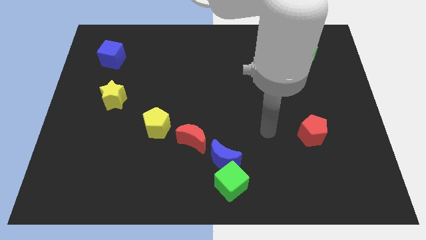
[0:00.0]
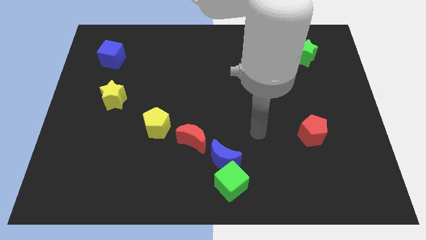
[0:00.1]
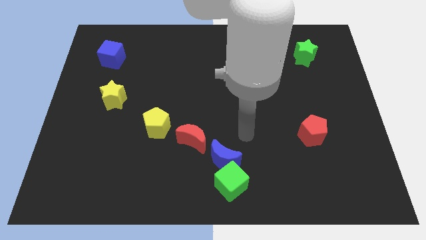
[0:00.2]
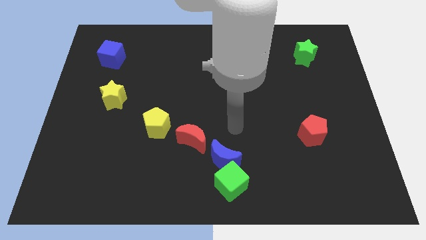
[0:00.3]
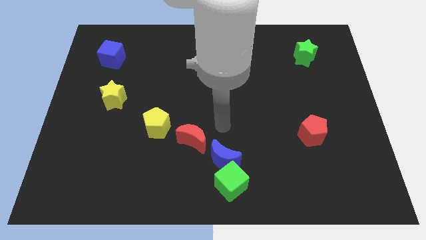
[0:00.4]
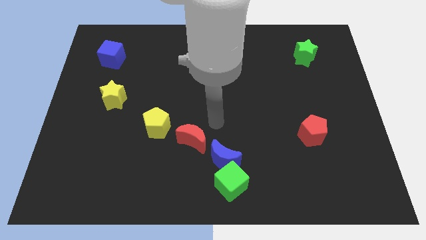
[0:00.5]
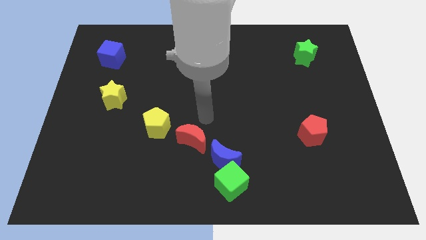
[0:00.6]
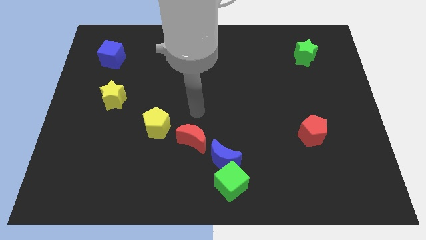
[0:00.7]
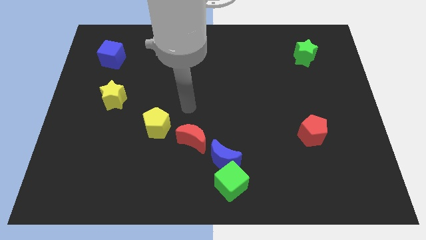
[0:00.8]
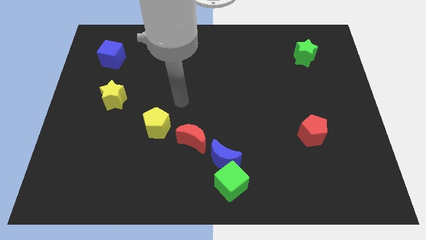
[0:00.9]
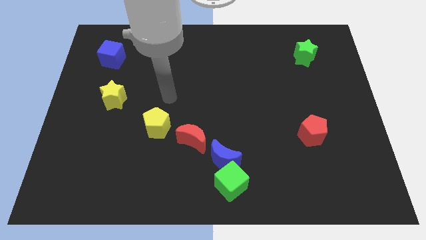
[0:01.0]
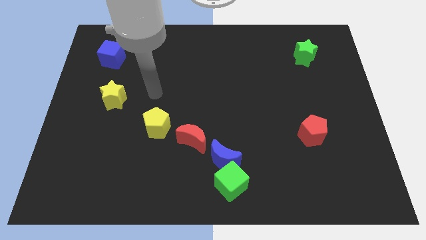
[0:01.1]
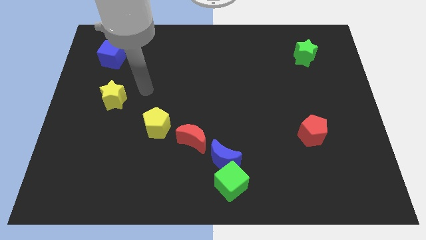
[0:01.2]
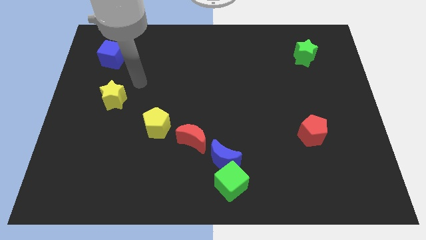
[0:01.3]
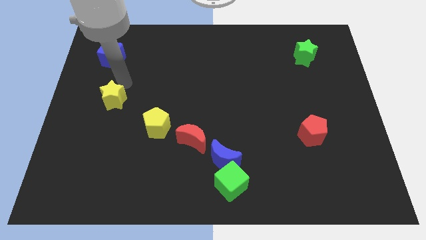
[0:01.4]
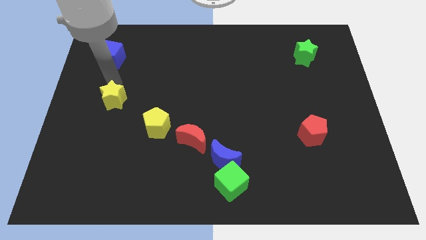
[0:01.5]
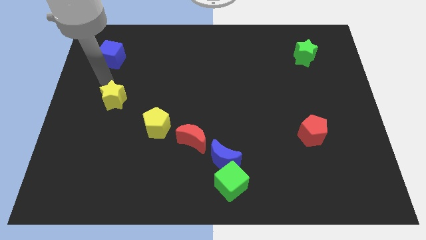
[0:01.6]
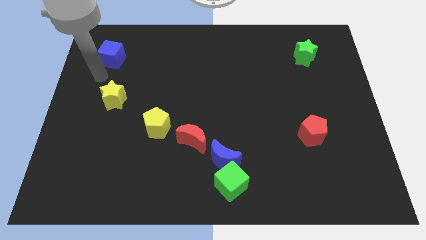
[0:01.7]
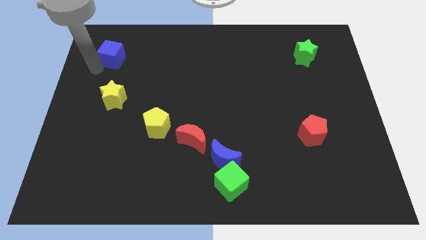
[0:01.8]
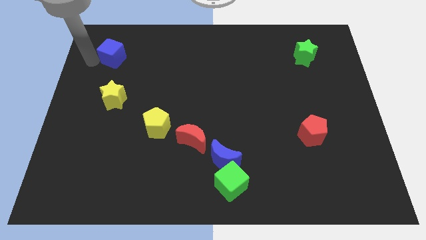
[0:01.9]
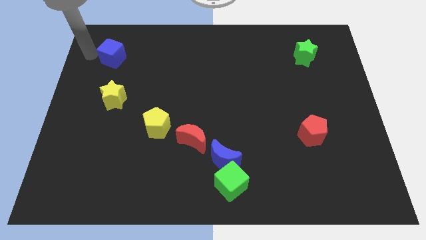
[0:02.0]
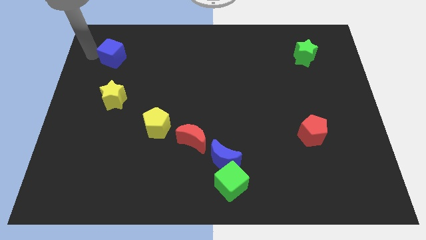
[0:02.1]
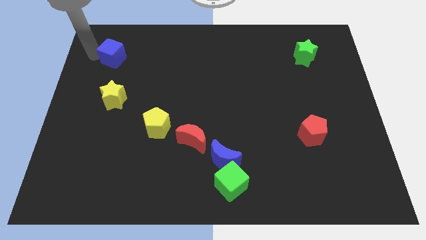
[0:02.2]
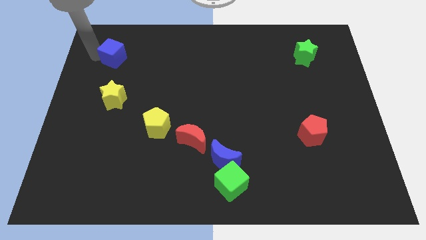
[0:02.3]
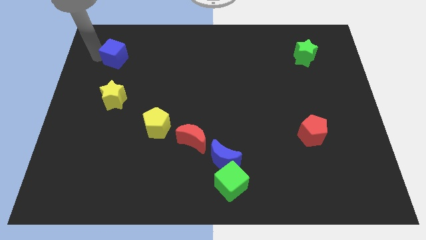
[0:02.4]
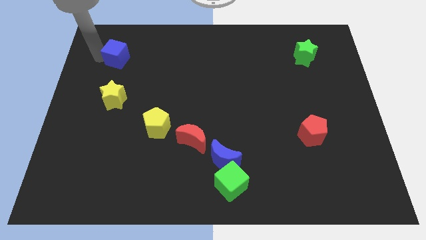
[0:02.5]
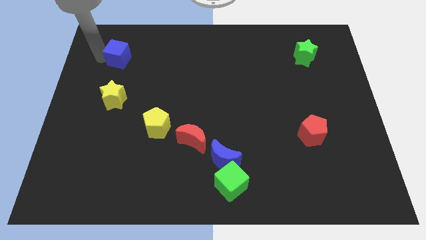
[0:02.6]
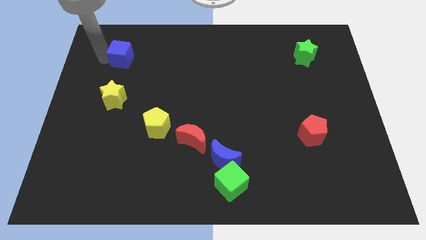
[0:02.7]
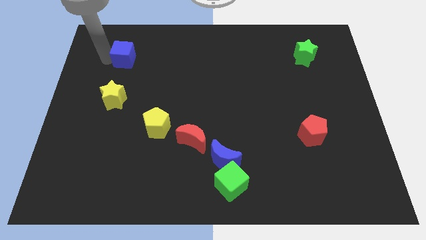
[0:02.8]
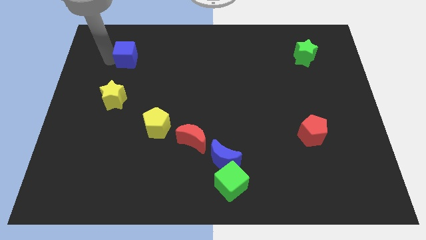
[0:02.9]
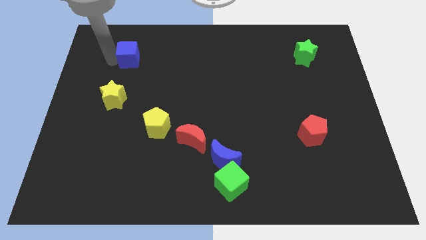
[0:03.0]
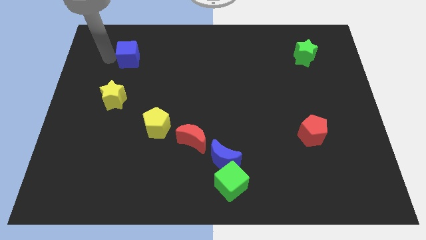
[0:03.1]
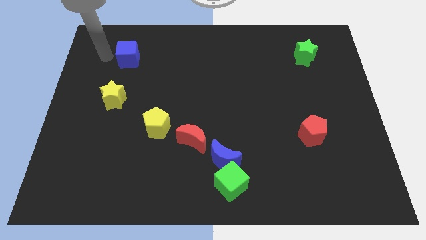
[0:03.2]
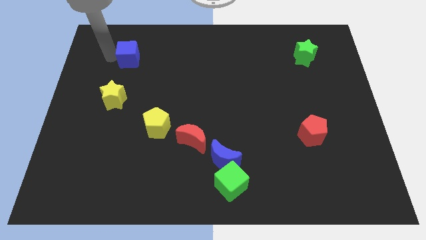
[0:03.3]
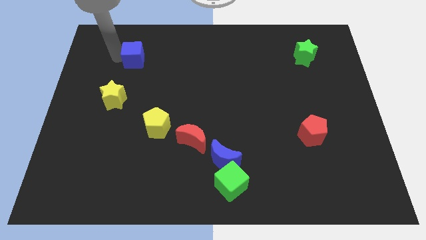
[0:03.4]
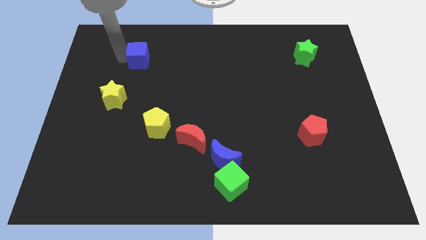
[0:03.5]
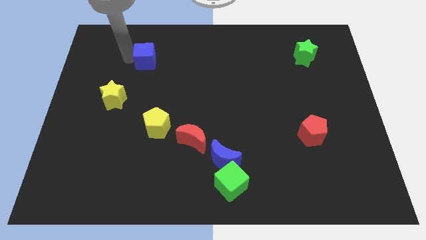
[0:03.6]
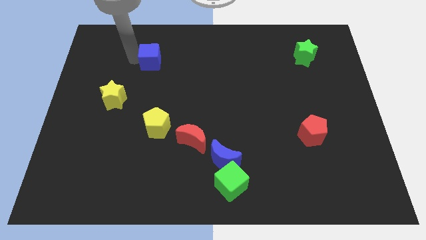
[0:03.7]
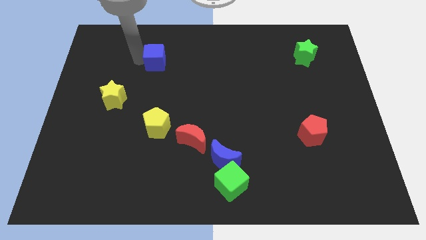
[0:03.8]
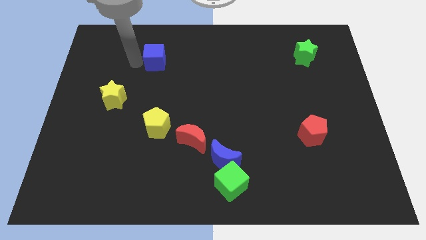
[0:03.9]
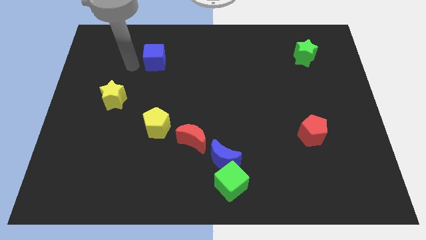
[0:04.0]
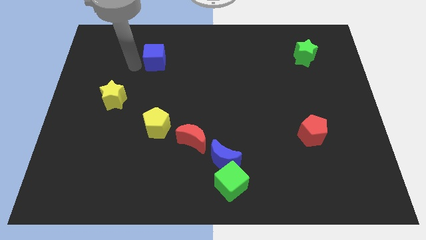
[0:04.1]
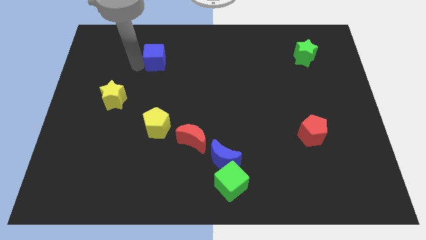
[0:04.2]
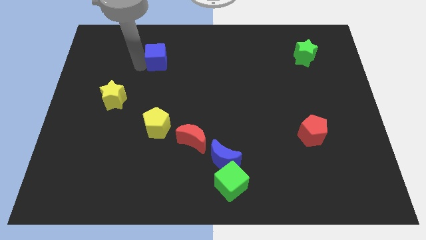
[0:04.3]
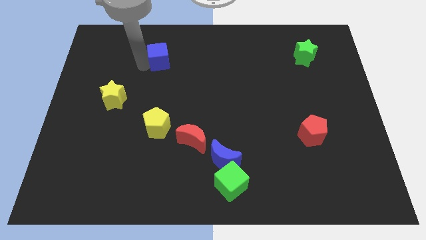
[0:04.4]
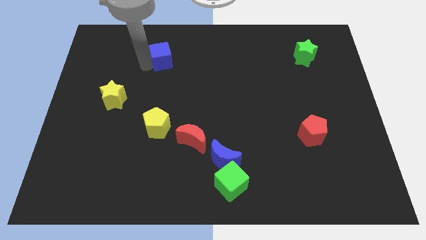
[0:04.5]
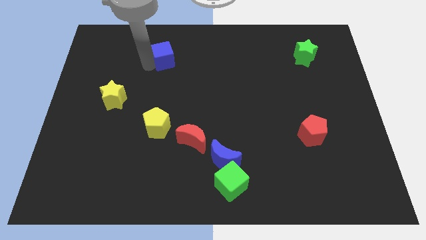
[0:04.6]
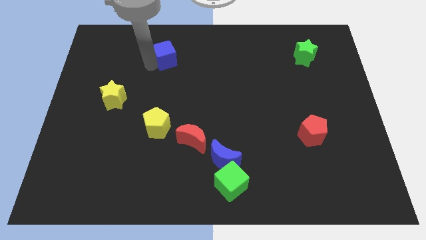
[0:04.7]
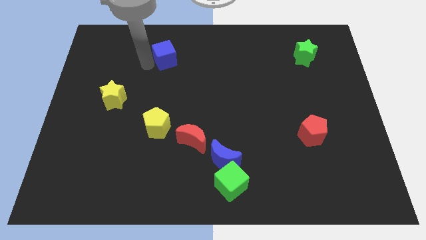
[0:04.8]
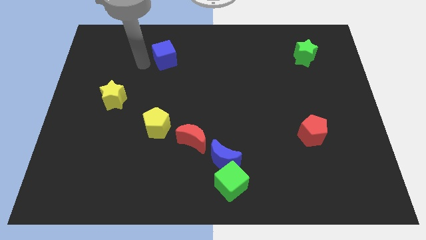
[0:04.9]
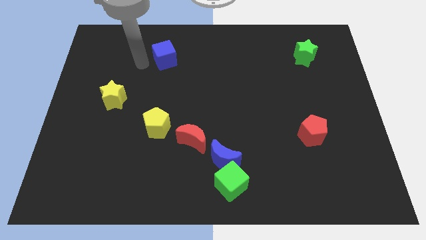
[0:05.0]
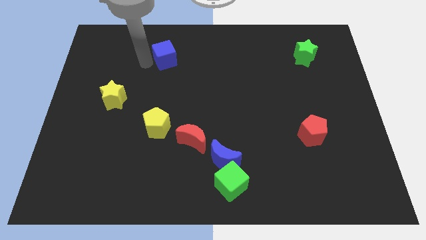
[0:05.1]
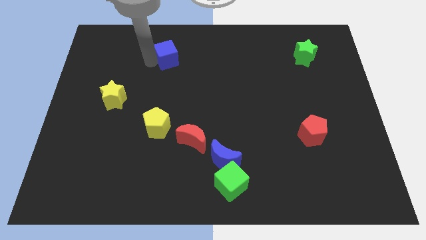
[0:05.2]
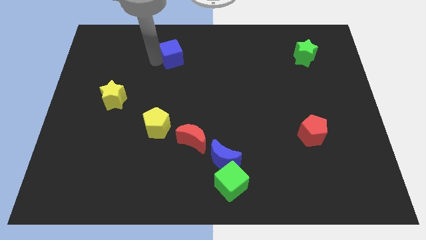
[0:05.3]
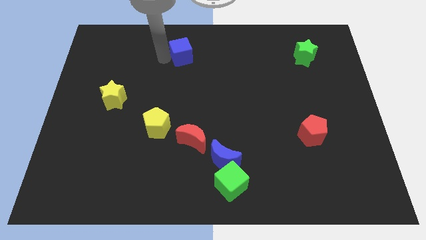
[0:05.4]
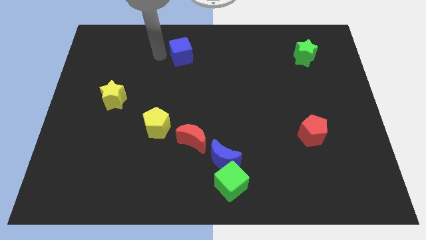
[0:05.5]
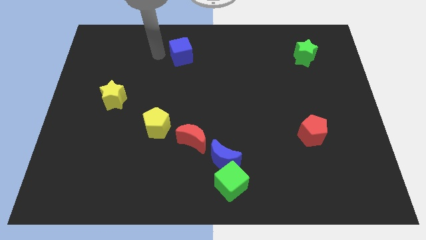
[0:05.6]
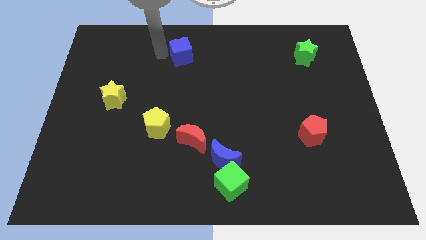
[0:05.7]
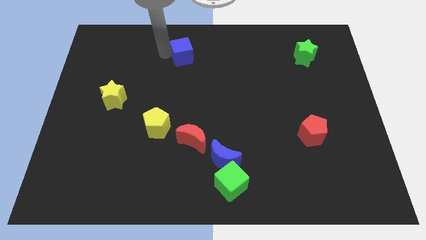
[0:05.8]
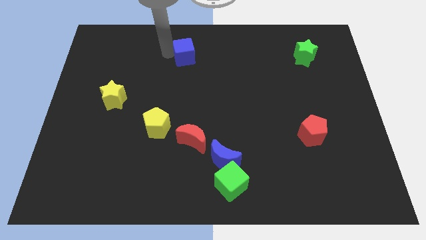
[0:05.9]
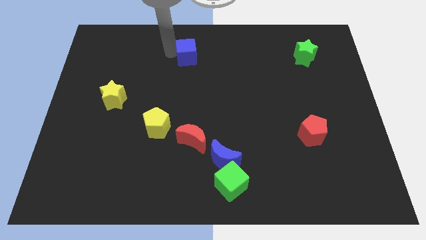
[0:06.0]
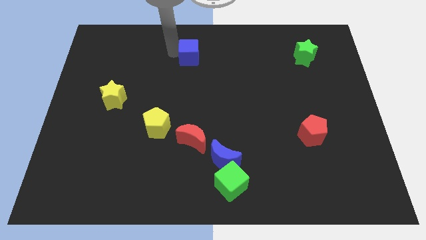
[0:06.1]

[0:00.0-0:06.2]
push the blue cube to the right

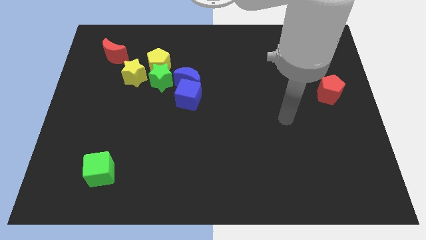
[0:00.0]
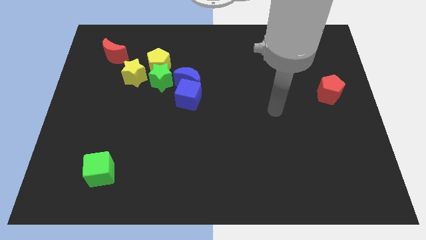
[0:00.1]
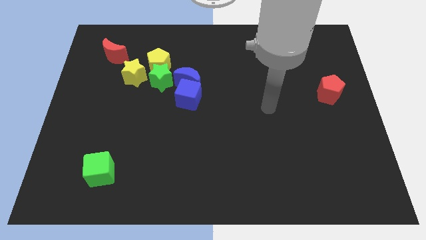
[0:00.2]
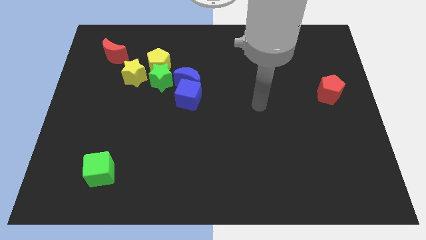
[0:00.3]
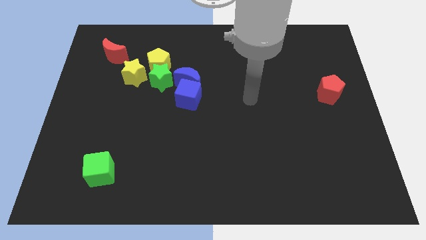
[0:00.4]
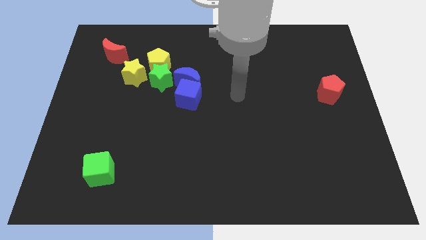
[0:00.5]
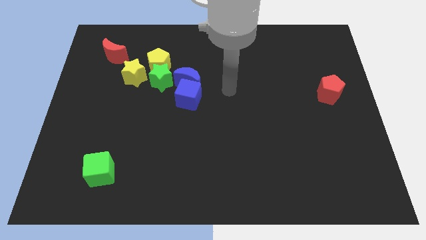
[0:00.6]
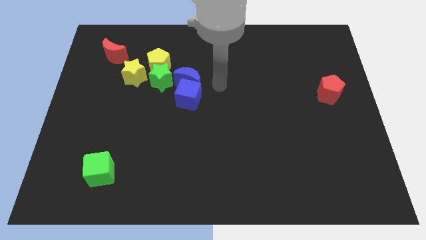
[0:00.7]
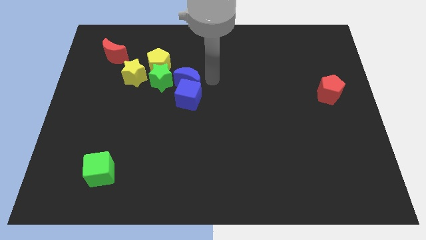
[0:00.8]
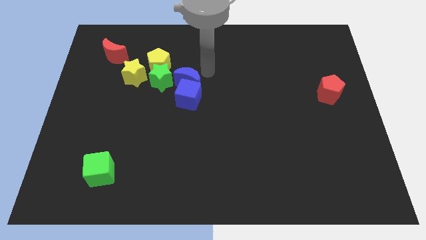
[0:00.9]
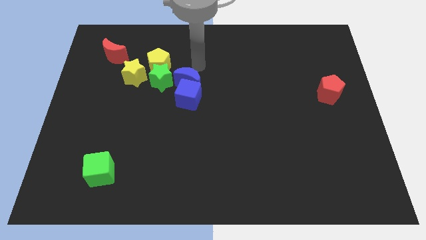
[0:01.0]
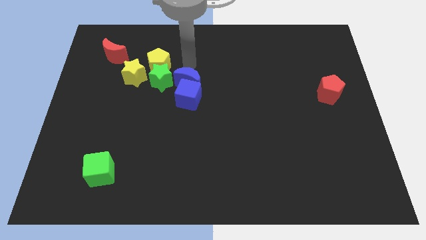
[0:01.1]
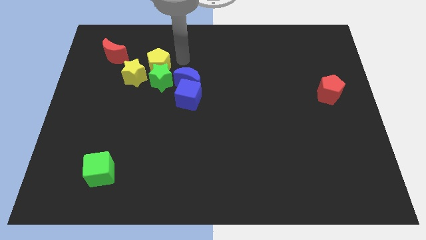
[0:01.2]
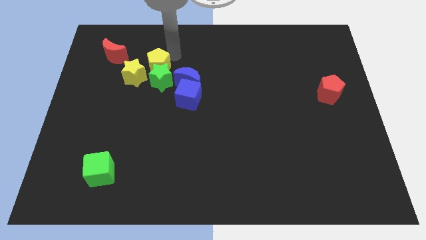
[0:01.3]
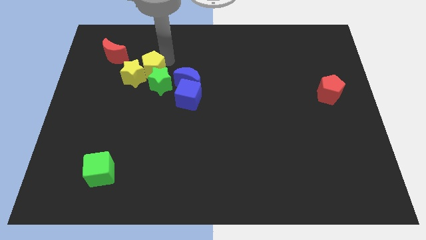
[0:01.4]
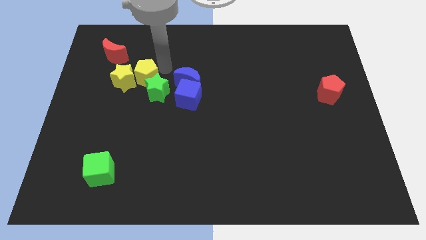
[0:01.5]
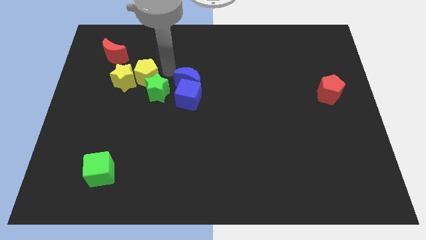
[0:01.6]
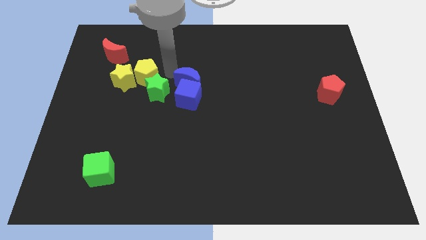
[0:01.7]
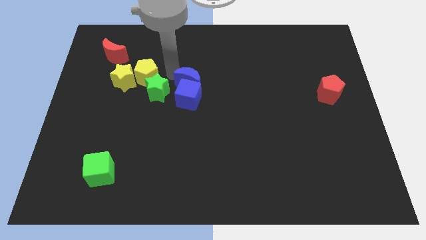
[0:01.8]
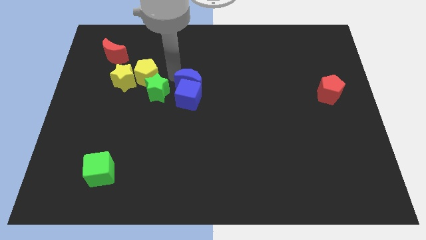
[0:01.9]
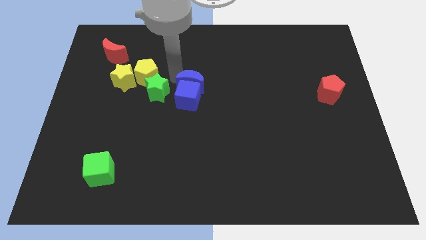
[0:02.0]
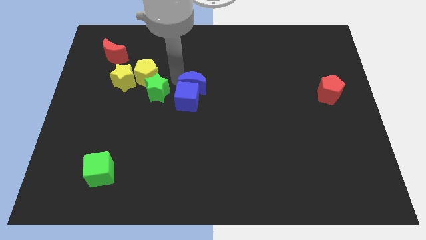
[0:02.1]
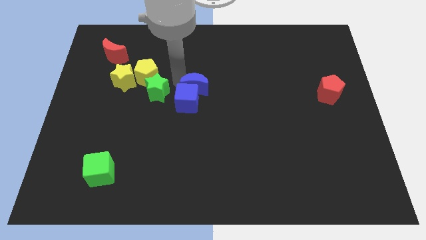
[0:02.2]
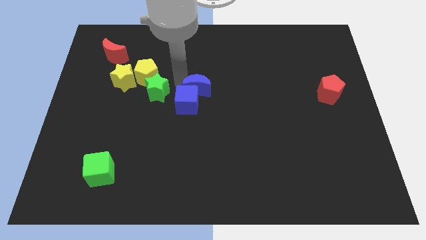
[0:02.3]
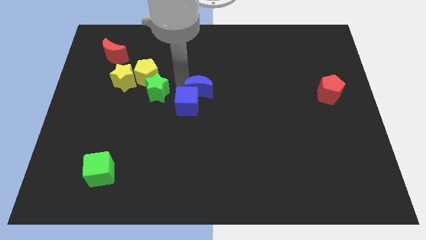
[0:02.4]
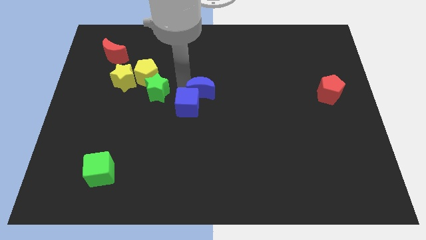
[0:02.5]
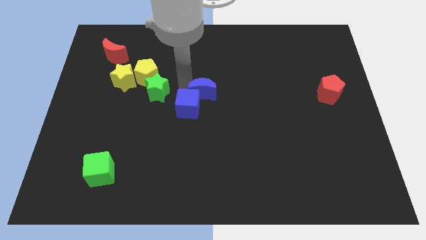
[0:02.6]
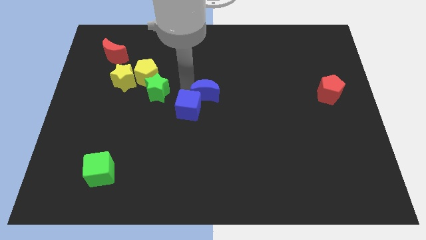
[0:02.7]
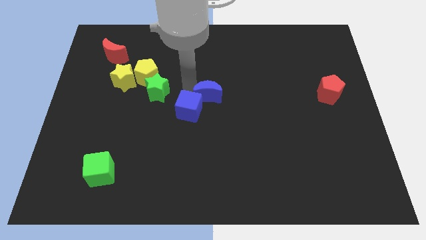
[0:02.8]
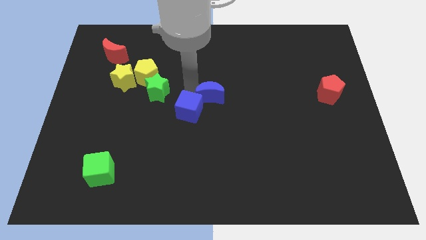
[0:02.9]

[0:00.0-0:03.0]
slightly push the blue moon downwards and then to the right
